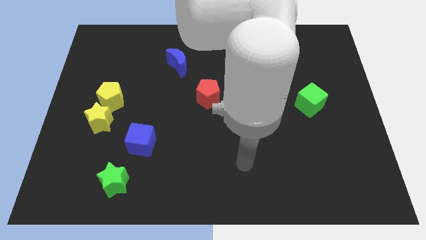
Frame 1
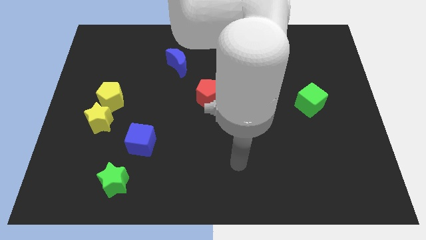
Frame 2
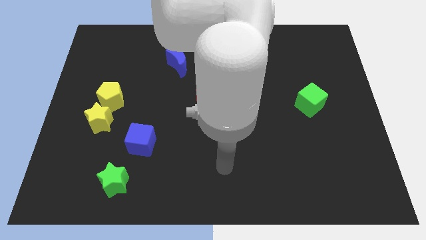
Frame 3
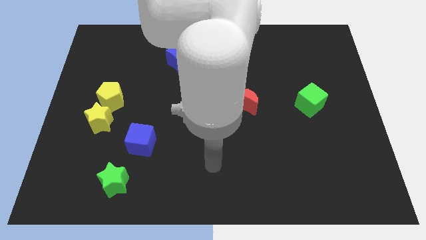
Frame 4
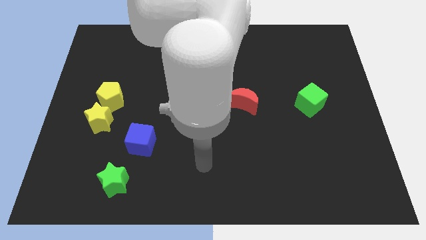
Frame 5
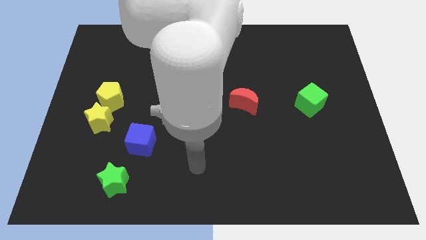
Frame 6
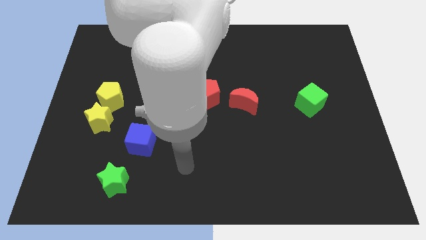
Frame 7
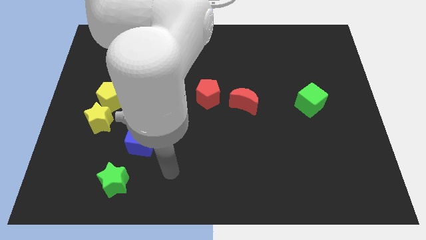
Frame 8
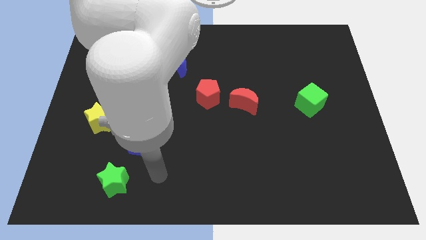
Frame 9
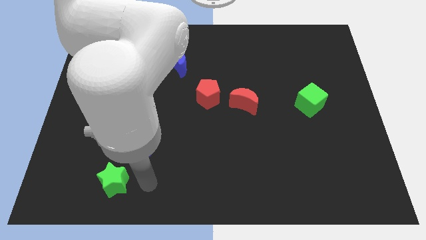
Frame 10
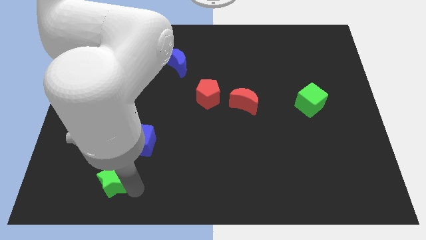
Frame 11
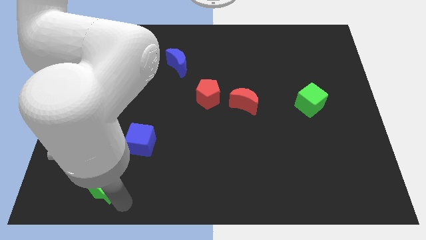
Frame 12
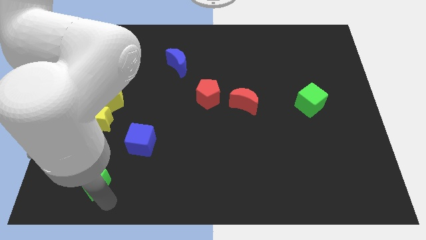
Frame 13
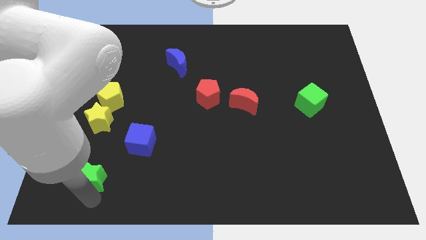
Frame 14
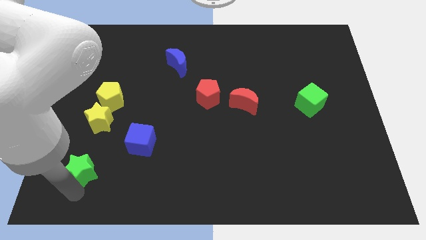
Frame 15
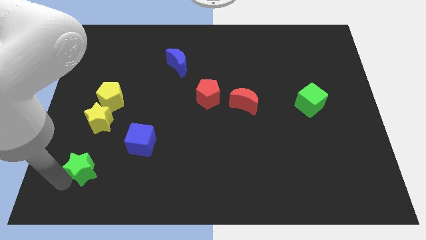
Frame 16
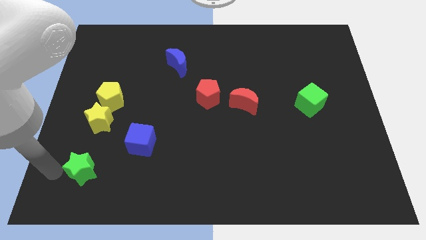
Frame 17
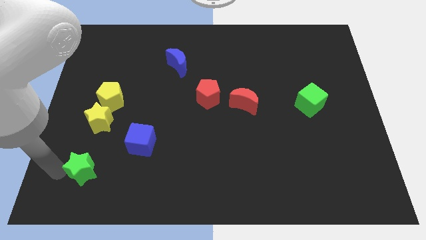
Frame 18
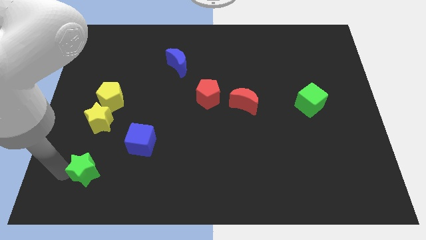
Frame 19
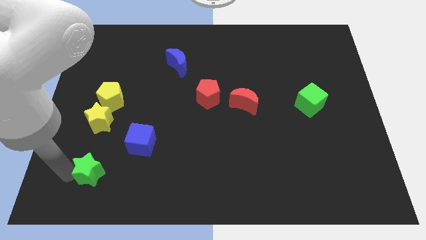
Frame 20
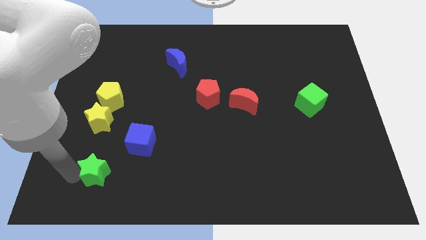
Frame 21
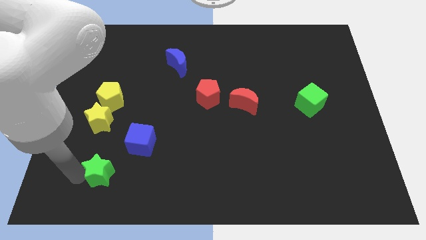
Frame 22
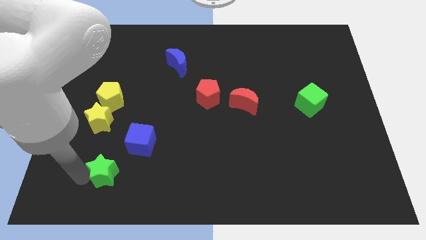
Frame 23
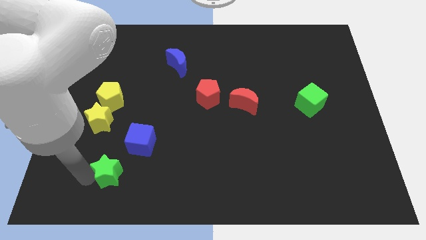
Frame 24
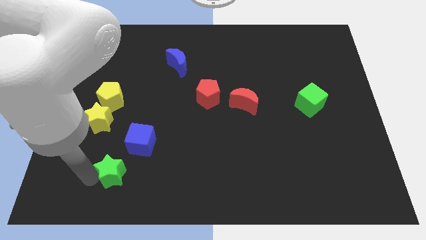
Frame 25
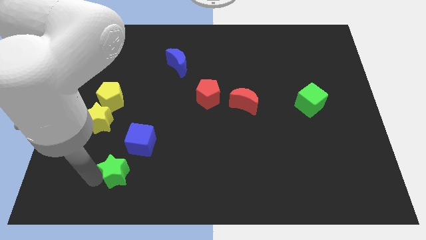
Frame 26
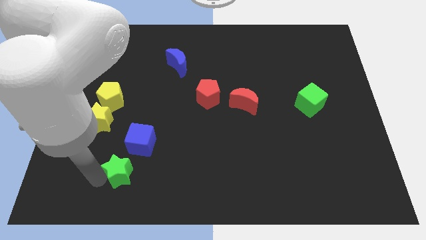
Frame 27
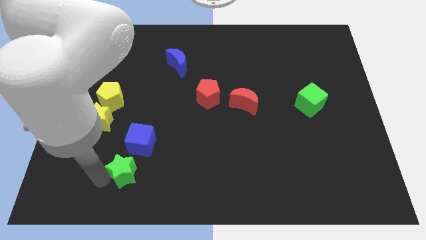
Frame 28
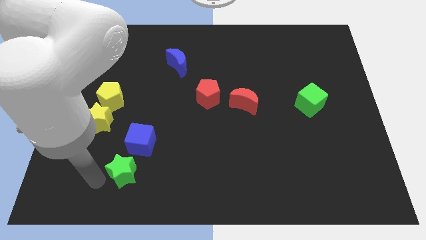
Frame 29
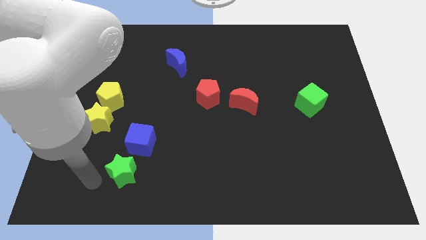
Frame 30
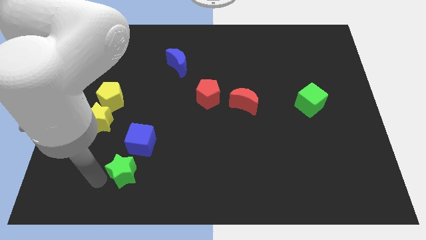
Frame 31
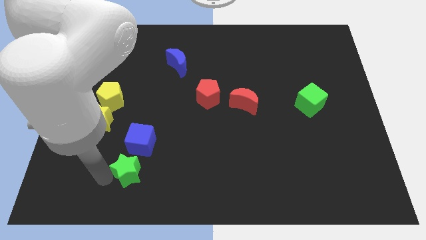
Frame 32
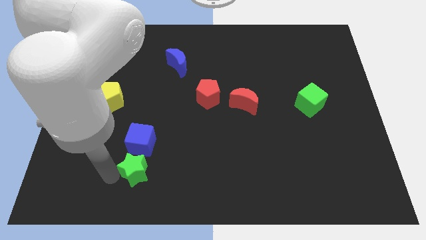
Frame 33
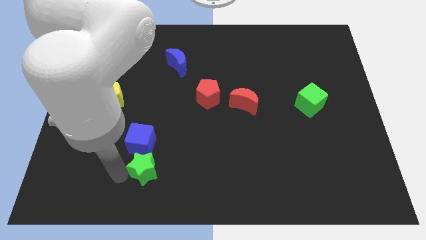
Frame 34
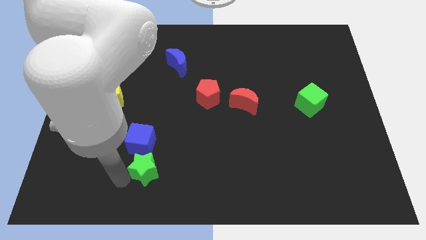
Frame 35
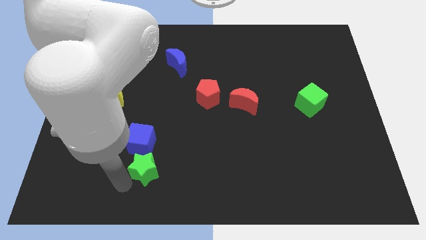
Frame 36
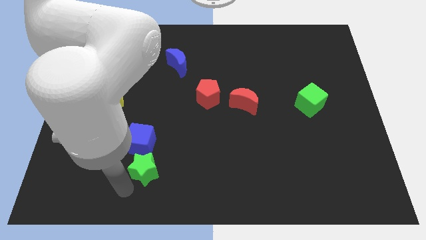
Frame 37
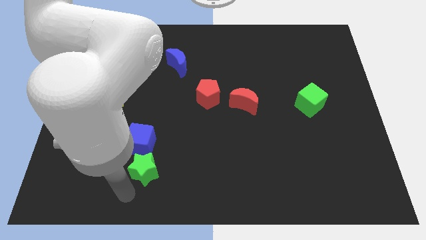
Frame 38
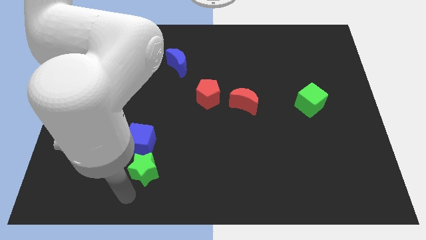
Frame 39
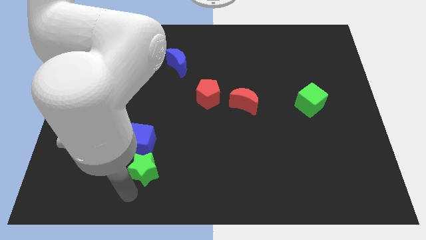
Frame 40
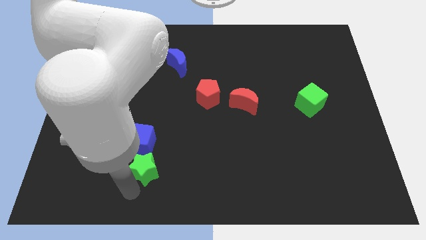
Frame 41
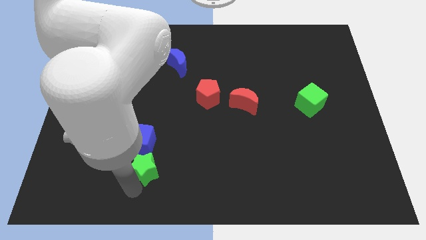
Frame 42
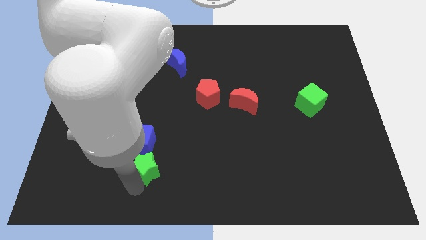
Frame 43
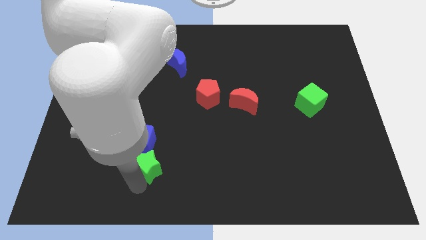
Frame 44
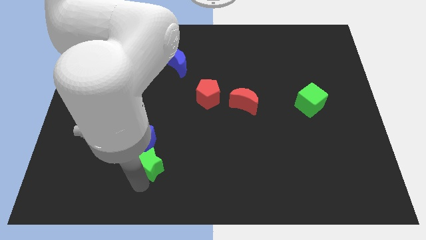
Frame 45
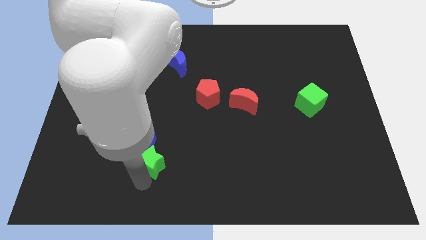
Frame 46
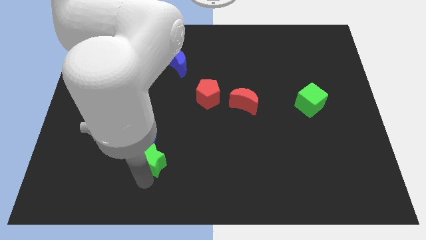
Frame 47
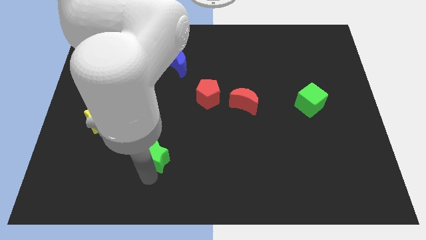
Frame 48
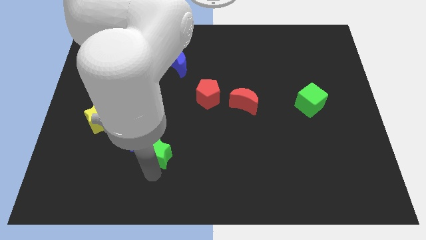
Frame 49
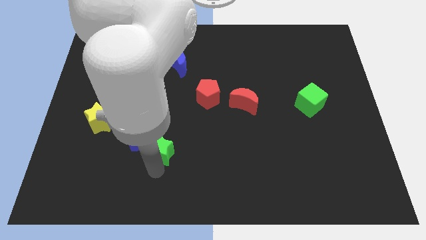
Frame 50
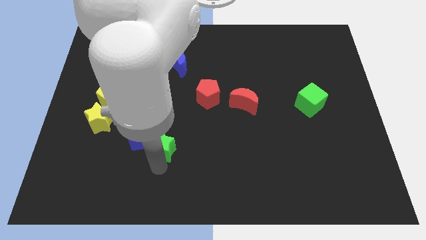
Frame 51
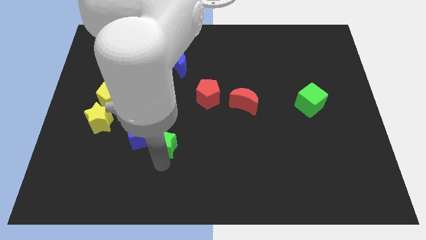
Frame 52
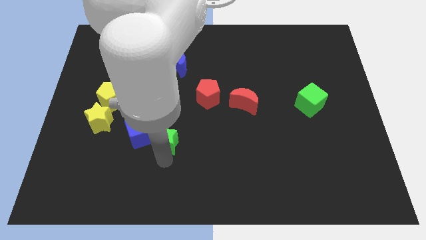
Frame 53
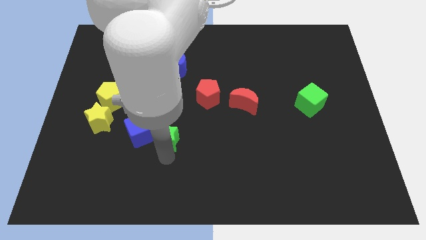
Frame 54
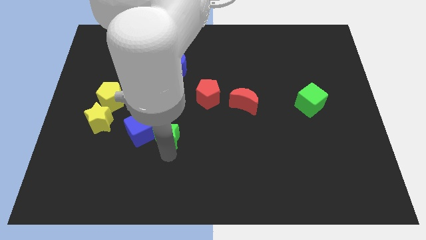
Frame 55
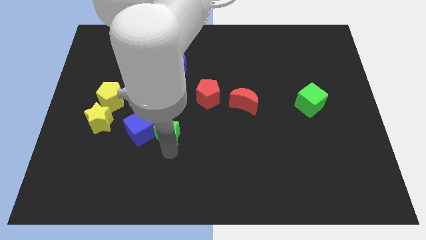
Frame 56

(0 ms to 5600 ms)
move the green star diagonally up and to the right of the blue cube

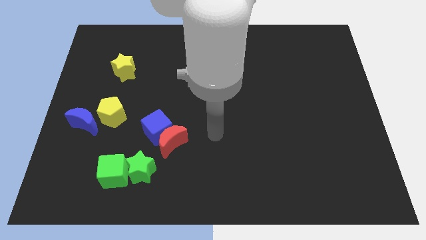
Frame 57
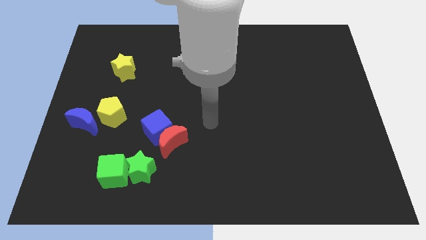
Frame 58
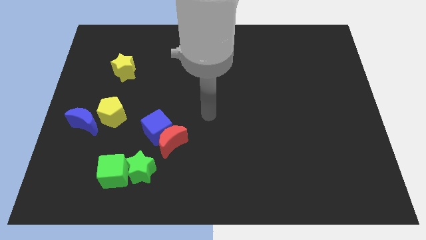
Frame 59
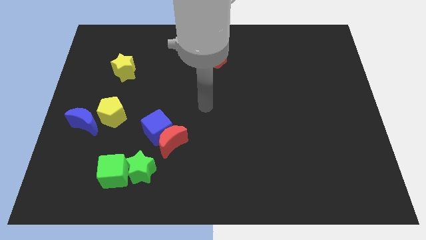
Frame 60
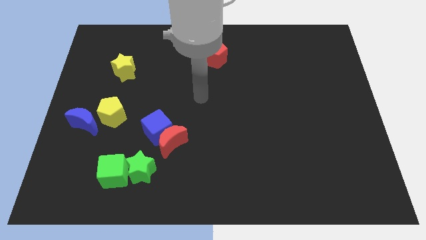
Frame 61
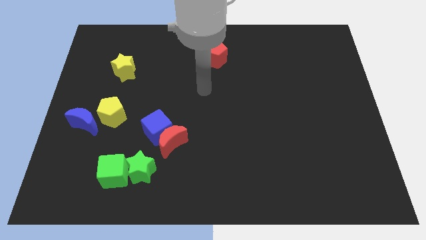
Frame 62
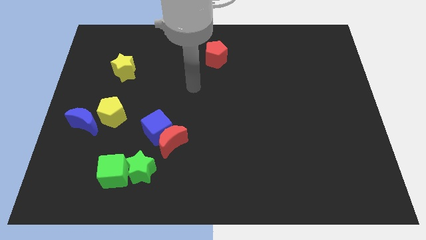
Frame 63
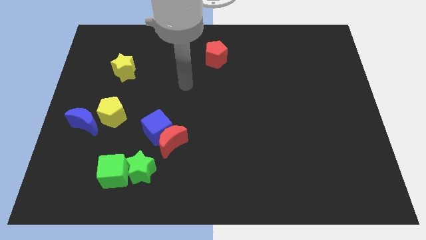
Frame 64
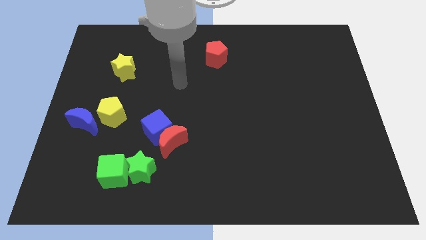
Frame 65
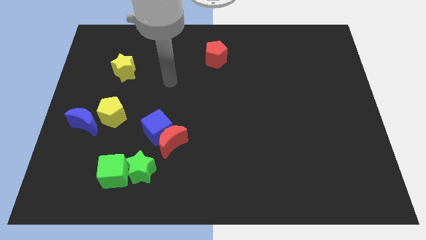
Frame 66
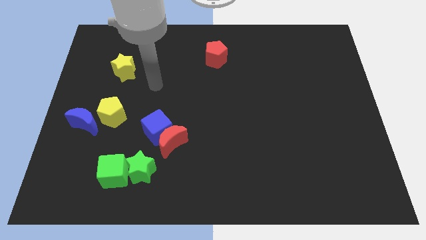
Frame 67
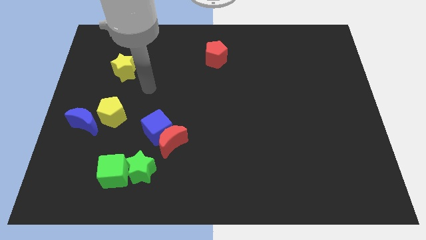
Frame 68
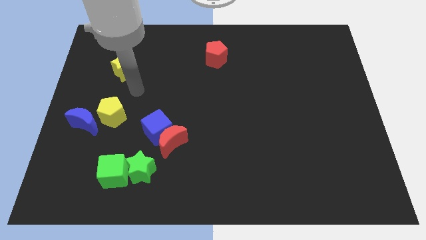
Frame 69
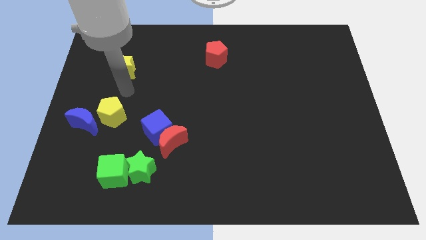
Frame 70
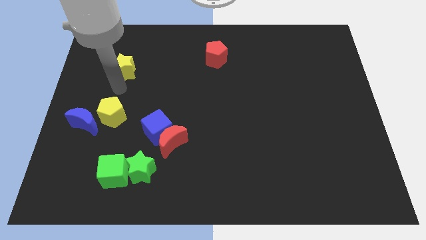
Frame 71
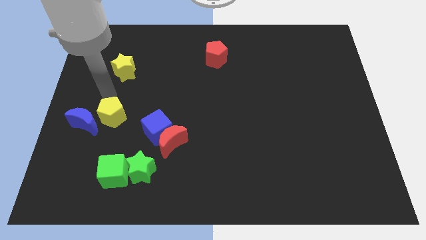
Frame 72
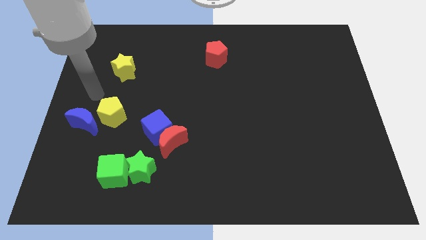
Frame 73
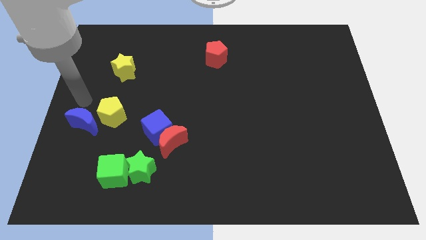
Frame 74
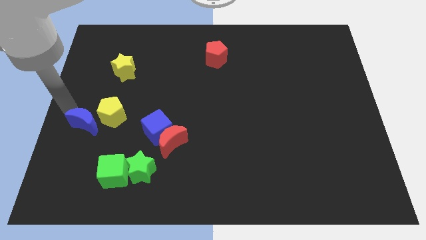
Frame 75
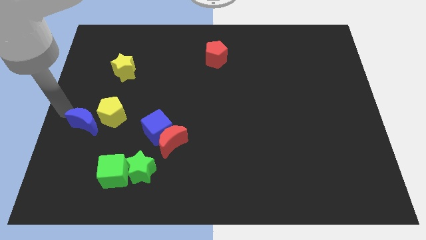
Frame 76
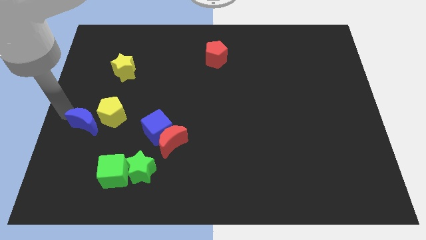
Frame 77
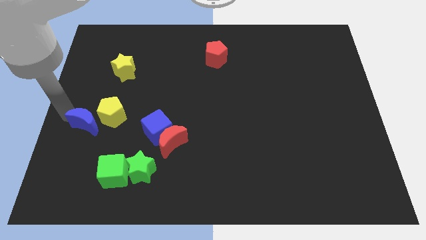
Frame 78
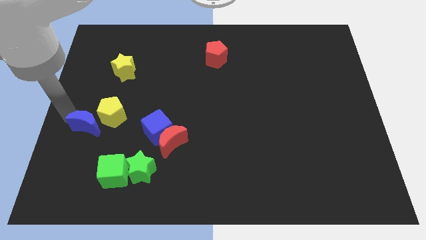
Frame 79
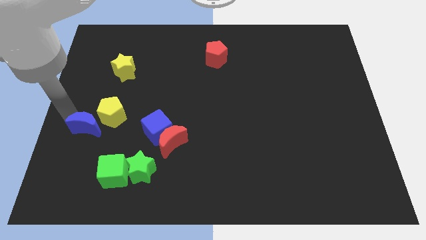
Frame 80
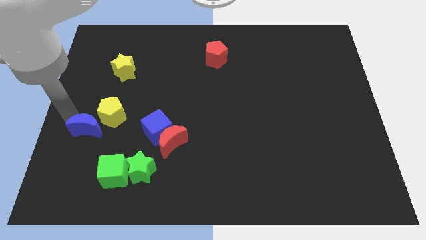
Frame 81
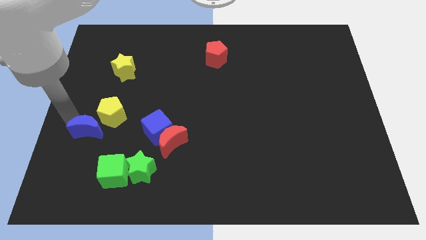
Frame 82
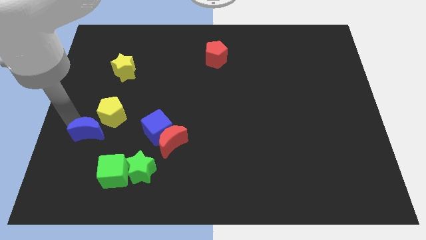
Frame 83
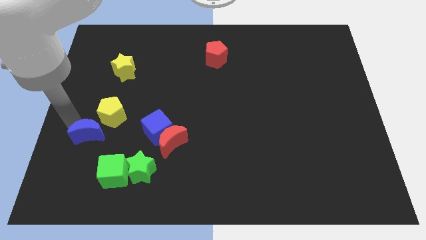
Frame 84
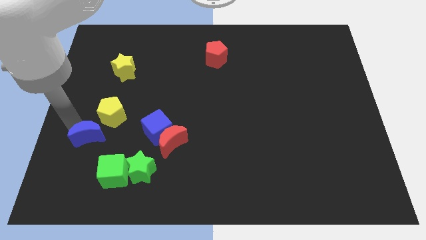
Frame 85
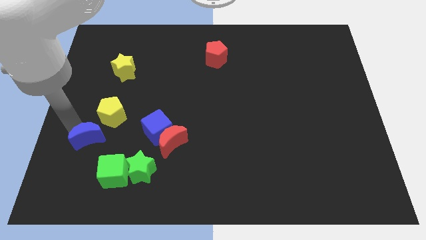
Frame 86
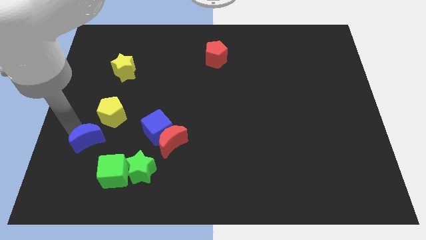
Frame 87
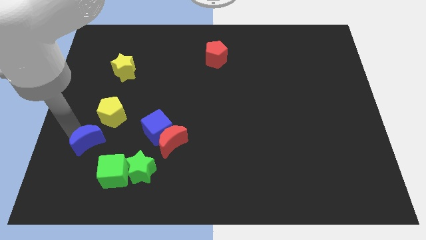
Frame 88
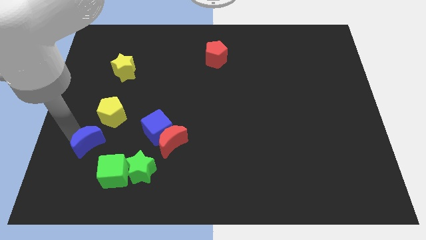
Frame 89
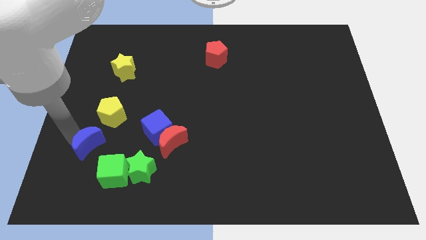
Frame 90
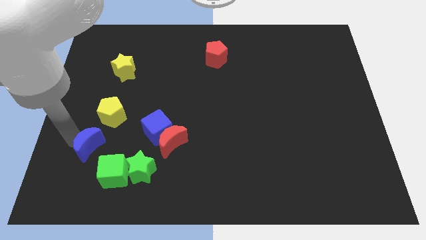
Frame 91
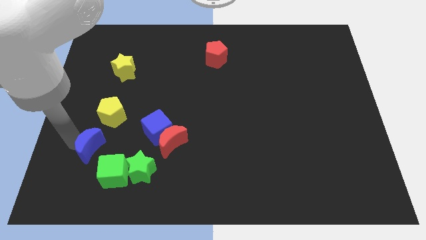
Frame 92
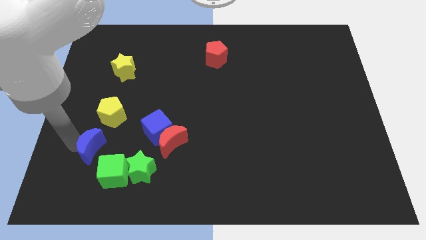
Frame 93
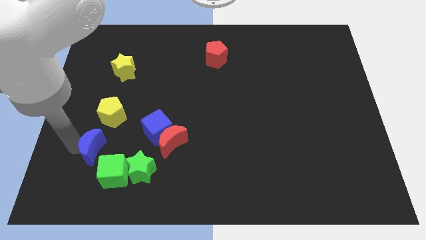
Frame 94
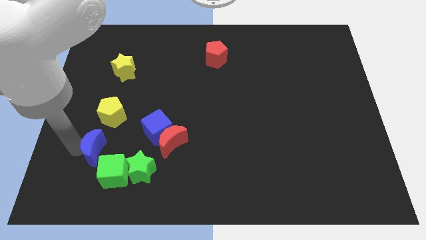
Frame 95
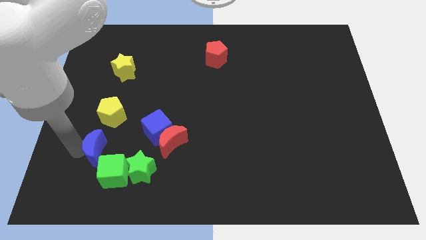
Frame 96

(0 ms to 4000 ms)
put the blue moon to the top of the green cube
